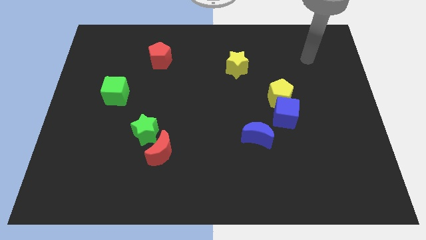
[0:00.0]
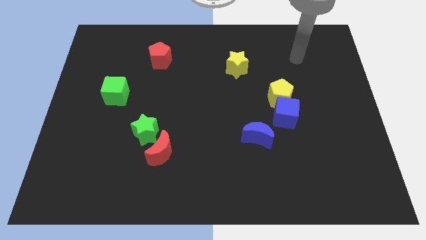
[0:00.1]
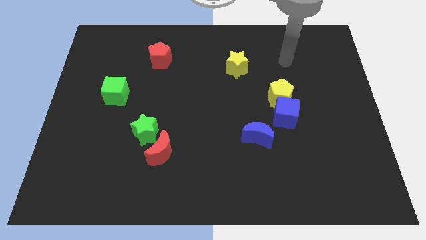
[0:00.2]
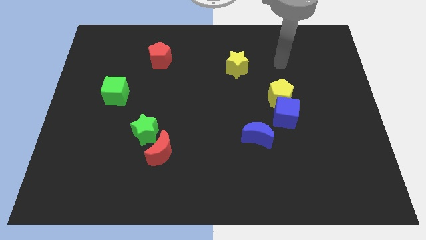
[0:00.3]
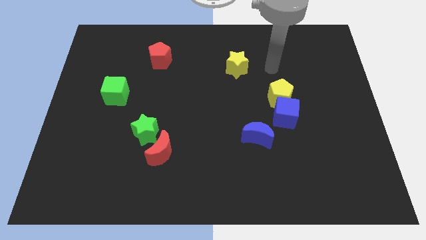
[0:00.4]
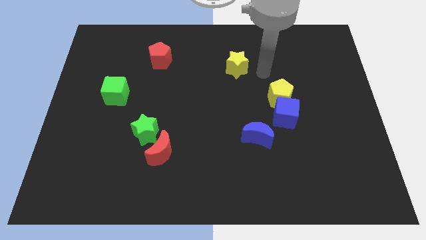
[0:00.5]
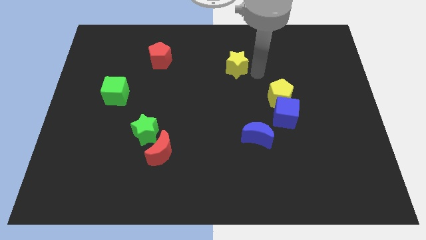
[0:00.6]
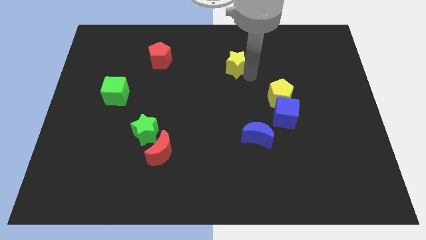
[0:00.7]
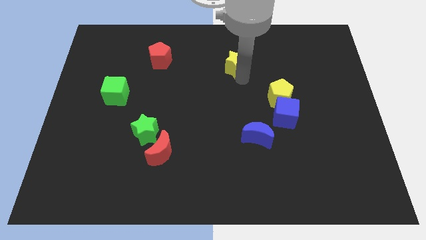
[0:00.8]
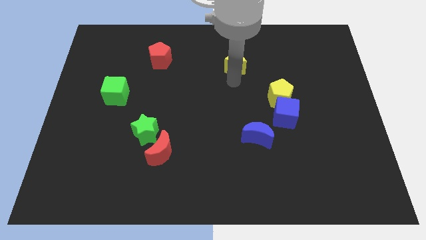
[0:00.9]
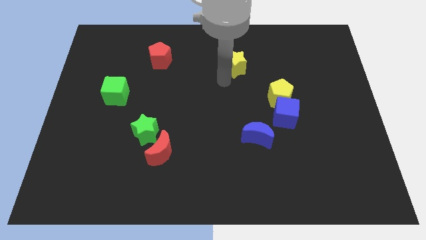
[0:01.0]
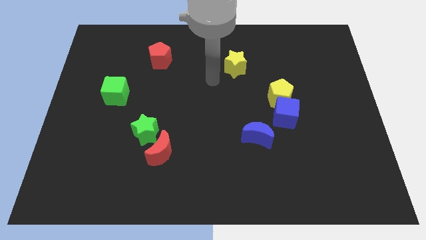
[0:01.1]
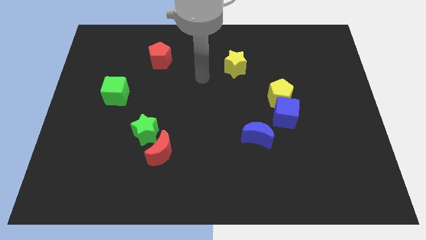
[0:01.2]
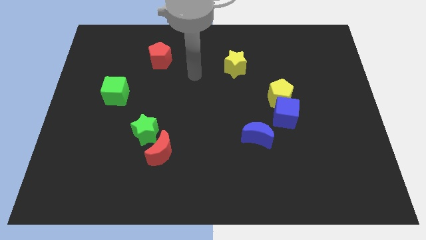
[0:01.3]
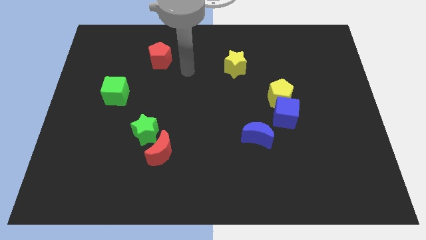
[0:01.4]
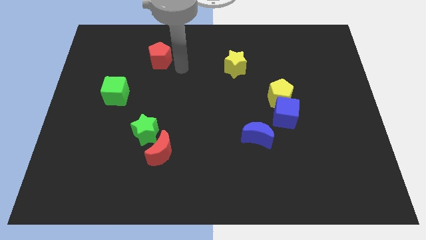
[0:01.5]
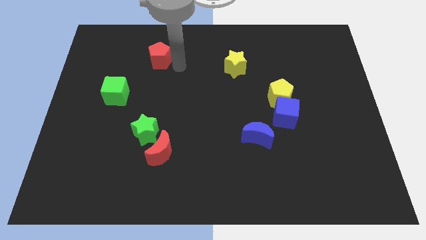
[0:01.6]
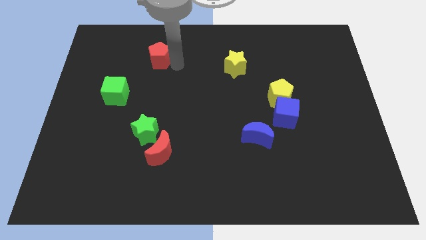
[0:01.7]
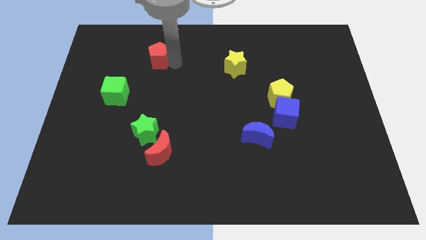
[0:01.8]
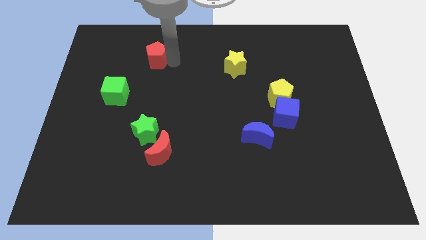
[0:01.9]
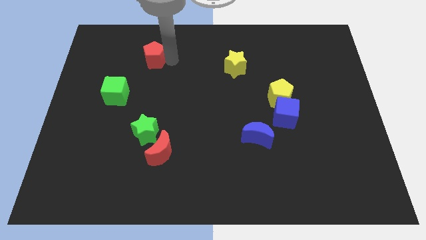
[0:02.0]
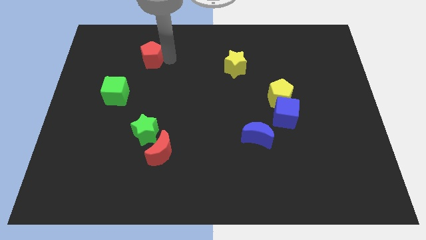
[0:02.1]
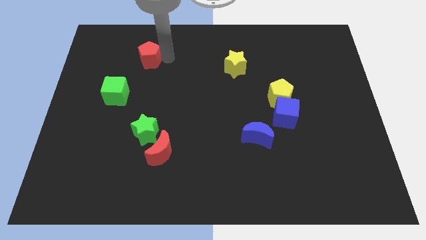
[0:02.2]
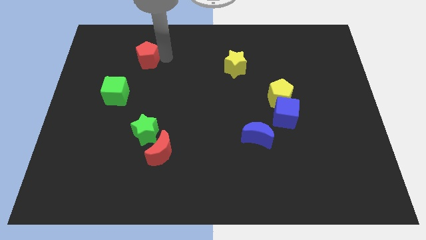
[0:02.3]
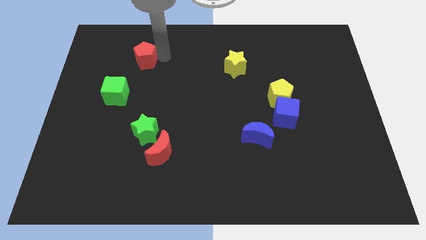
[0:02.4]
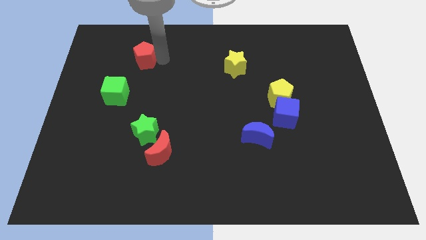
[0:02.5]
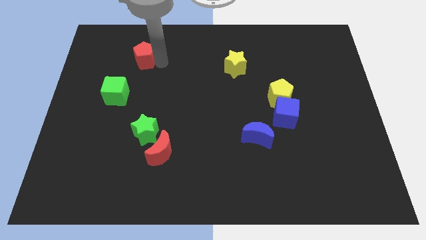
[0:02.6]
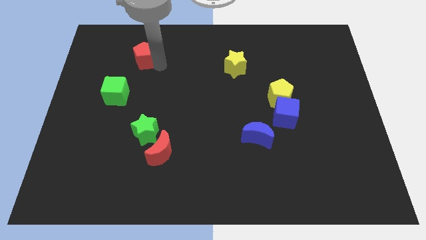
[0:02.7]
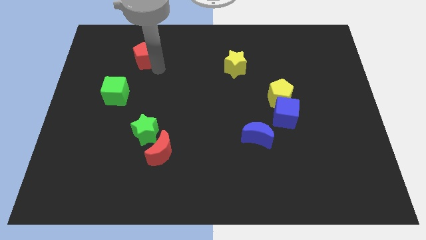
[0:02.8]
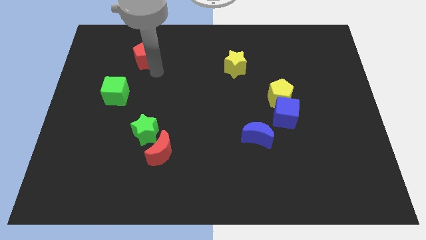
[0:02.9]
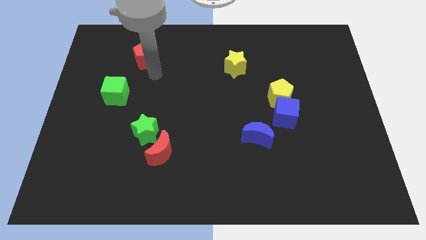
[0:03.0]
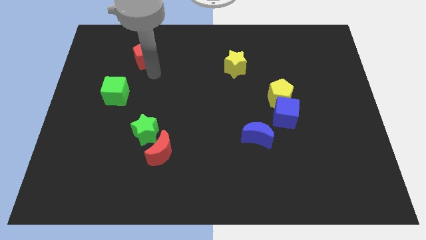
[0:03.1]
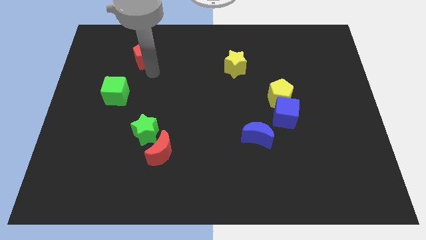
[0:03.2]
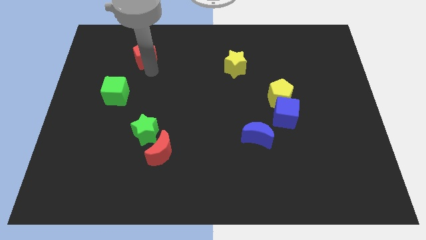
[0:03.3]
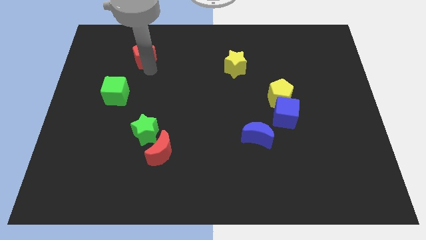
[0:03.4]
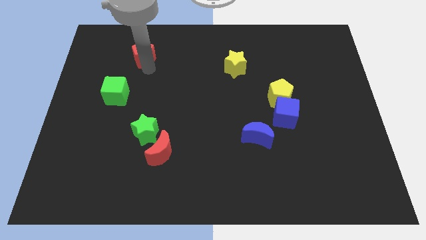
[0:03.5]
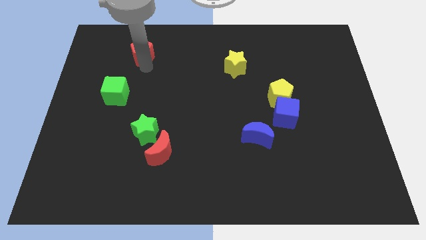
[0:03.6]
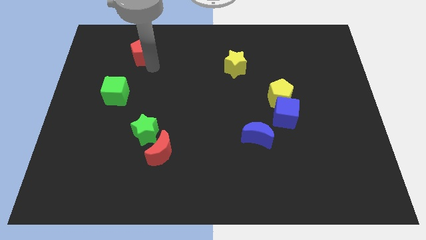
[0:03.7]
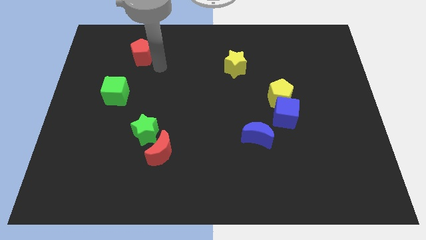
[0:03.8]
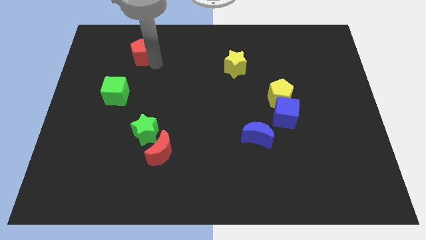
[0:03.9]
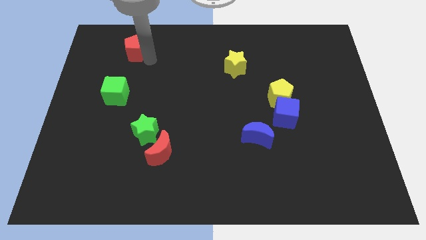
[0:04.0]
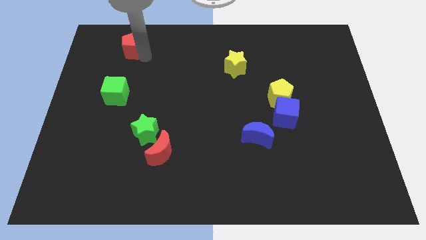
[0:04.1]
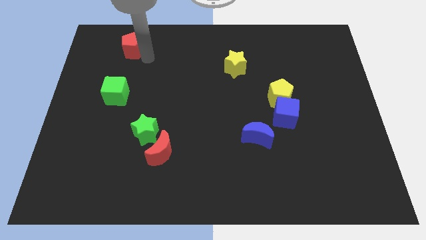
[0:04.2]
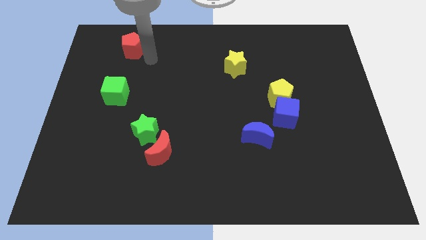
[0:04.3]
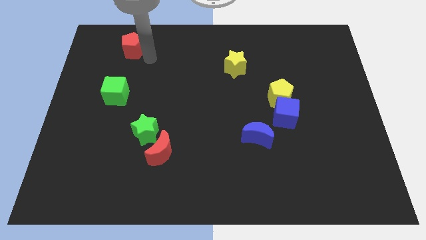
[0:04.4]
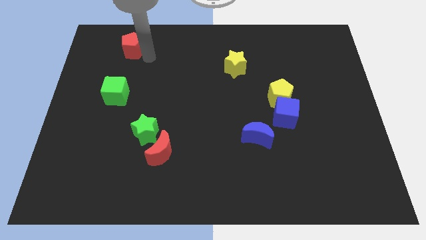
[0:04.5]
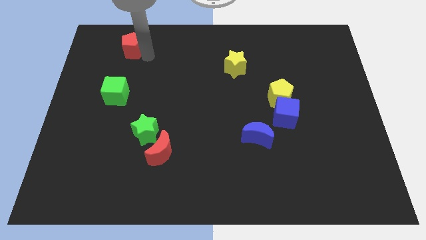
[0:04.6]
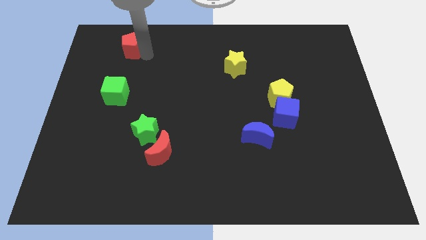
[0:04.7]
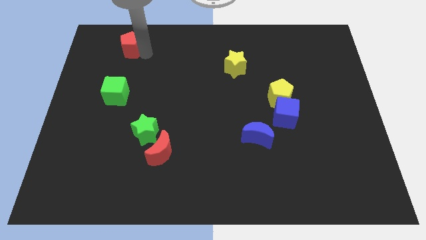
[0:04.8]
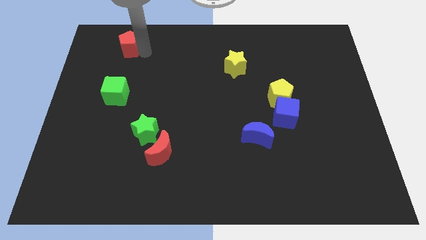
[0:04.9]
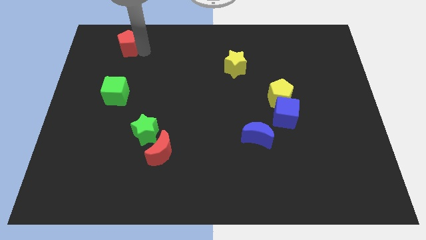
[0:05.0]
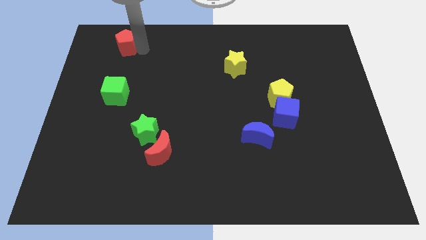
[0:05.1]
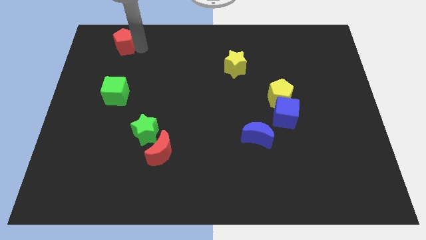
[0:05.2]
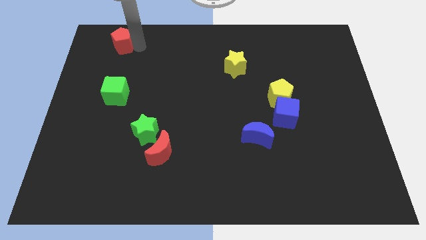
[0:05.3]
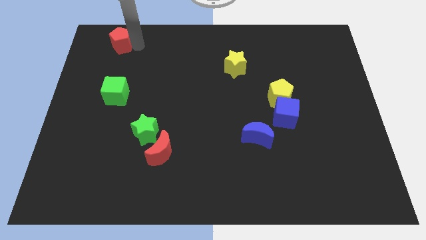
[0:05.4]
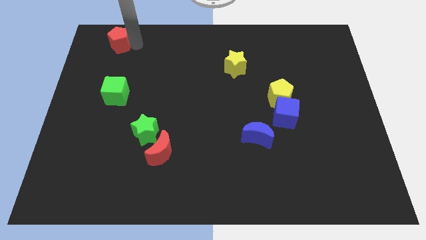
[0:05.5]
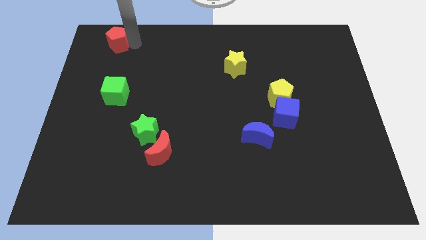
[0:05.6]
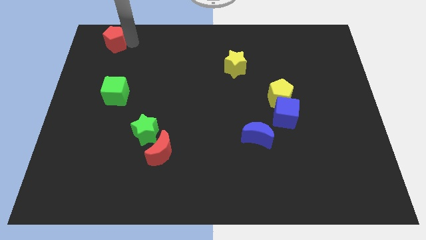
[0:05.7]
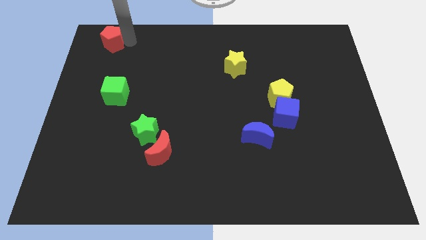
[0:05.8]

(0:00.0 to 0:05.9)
move the red pentagon to the top left

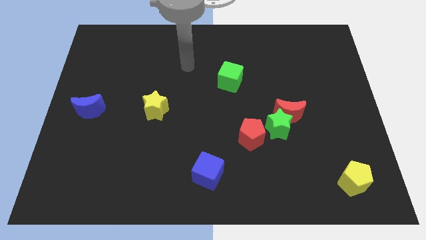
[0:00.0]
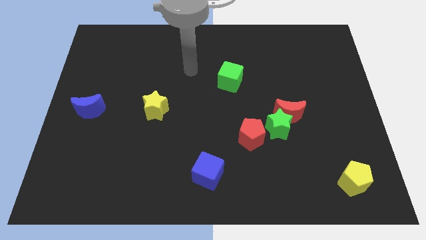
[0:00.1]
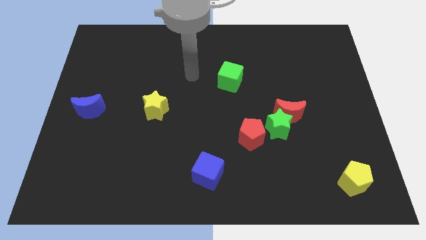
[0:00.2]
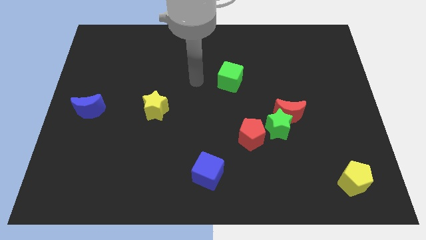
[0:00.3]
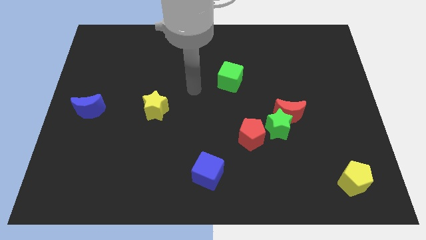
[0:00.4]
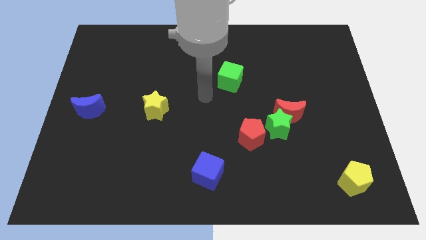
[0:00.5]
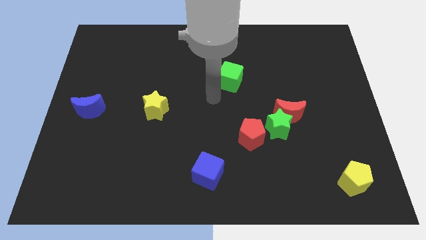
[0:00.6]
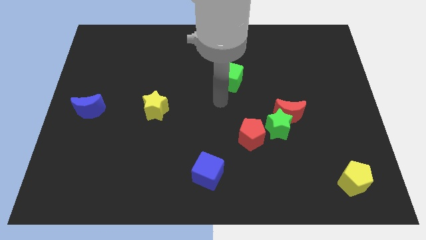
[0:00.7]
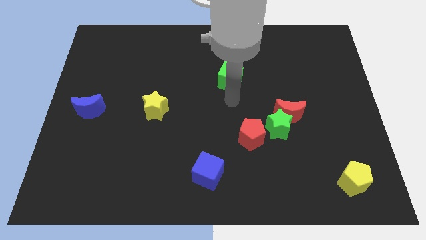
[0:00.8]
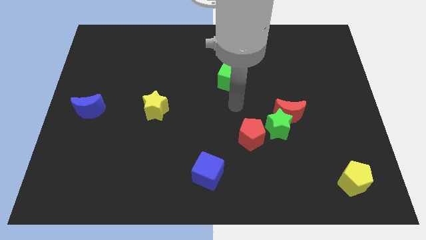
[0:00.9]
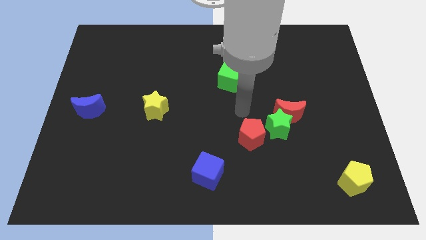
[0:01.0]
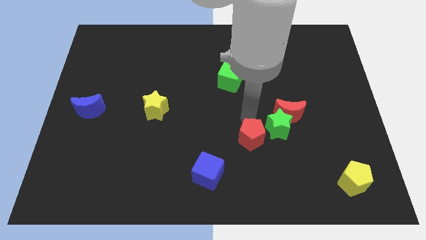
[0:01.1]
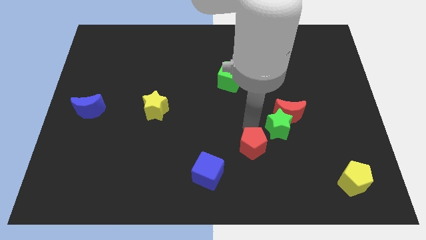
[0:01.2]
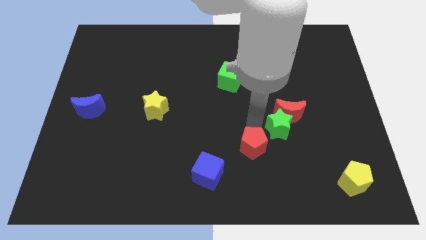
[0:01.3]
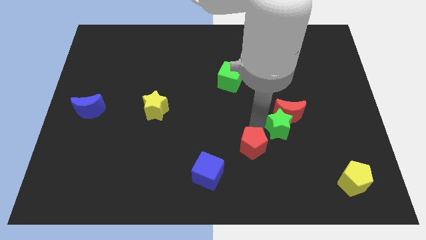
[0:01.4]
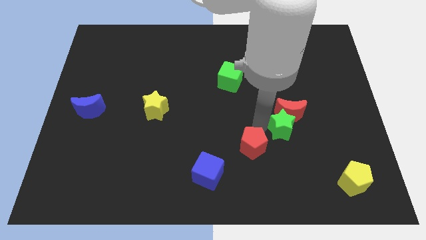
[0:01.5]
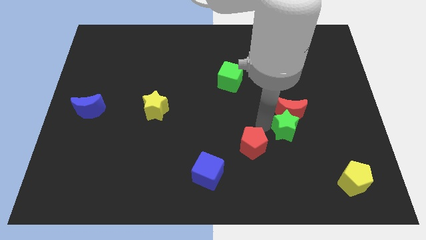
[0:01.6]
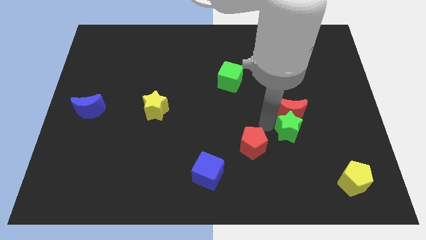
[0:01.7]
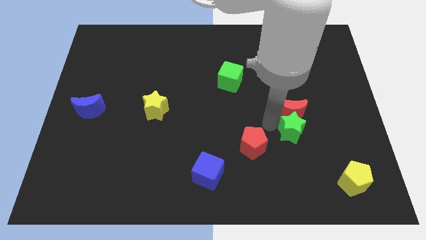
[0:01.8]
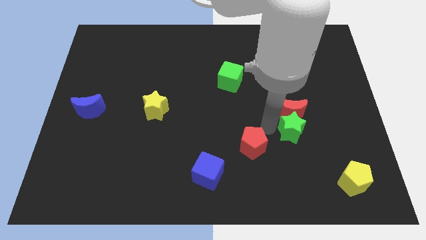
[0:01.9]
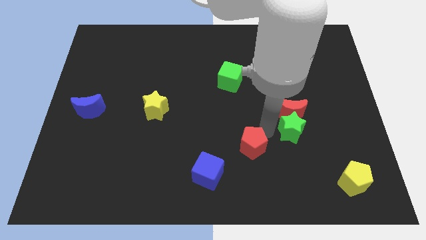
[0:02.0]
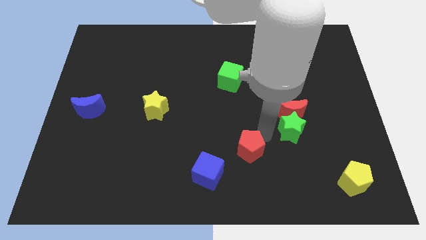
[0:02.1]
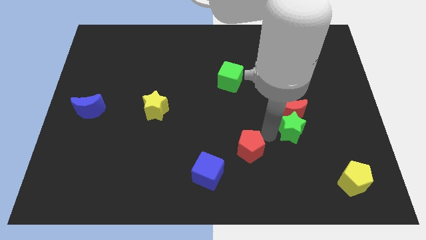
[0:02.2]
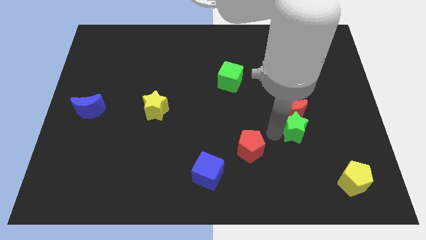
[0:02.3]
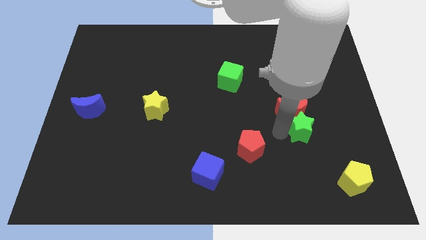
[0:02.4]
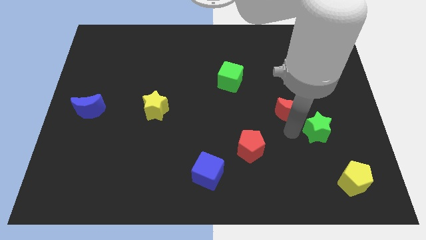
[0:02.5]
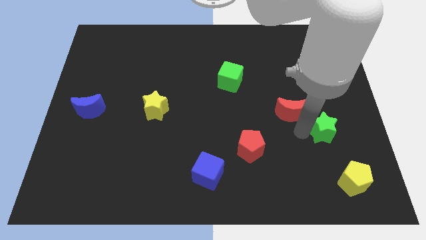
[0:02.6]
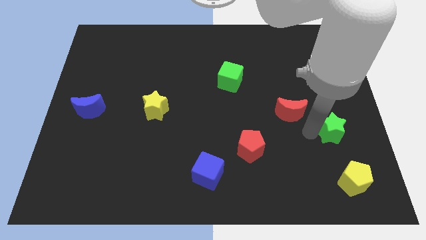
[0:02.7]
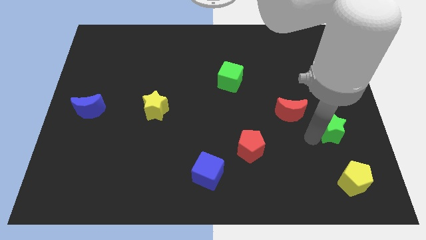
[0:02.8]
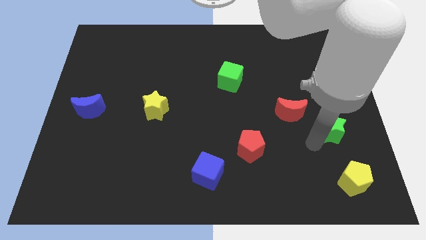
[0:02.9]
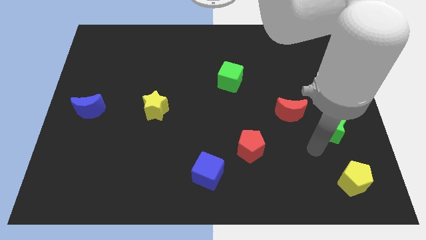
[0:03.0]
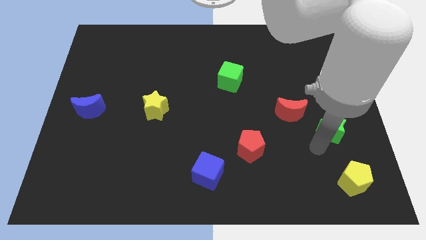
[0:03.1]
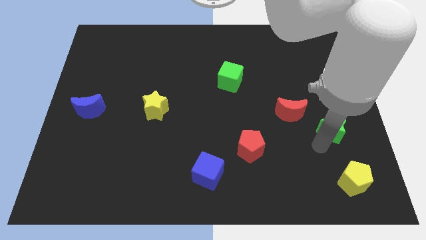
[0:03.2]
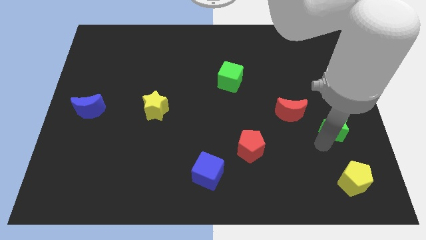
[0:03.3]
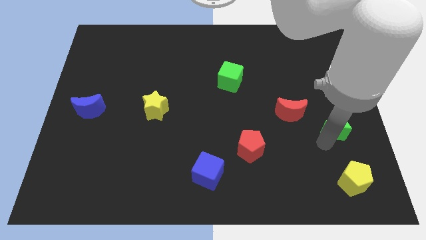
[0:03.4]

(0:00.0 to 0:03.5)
move the green star to the center right
